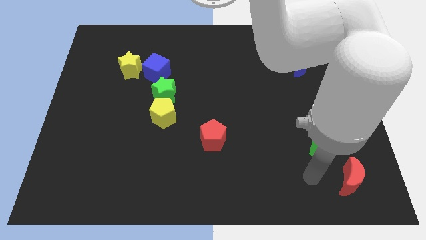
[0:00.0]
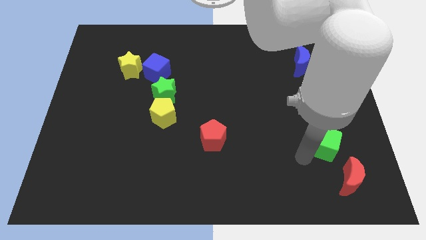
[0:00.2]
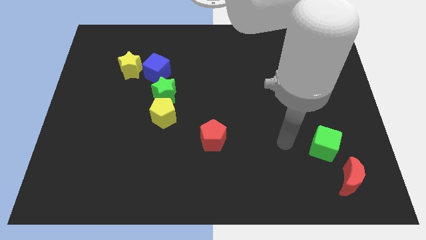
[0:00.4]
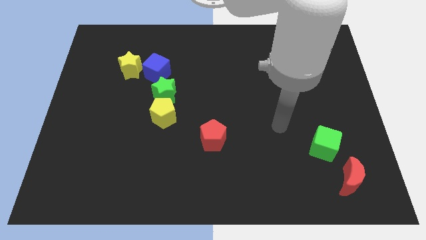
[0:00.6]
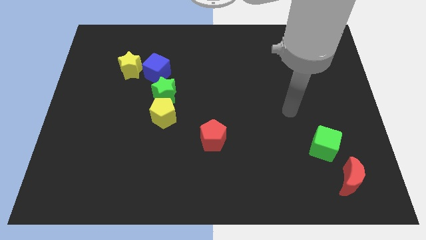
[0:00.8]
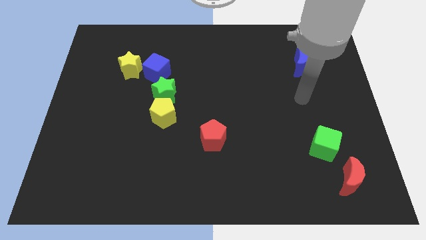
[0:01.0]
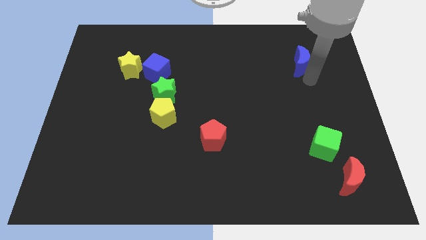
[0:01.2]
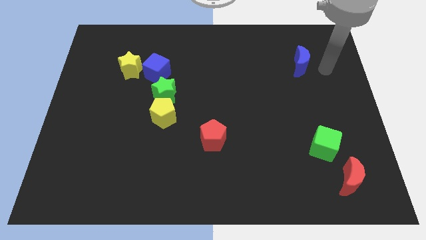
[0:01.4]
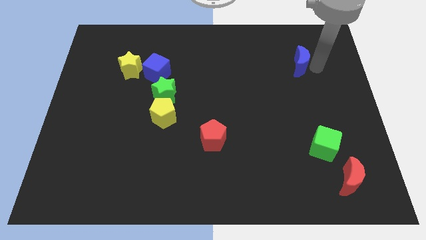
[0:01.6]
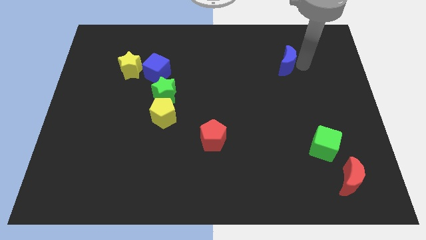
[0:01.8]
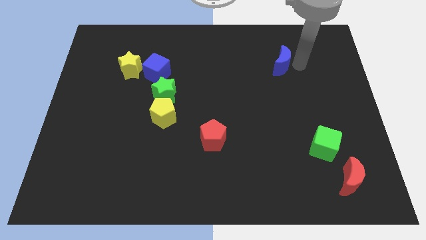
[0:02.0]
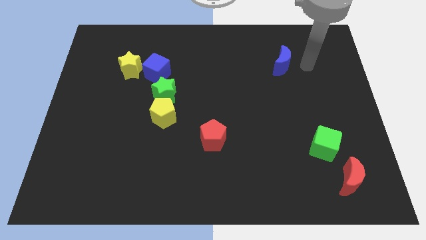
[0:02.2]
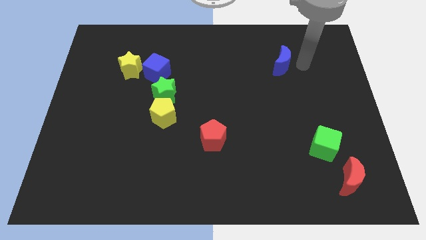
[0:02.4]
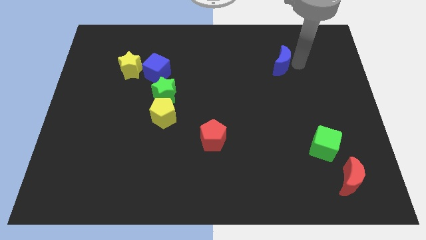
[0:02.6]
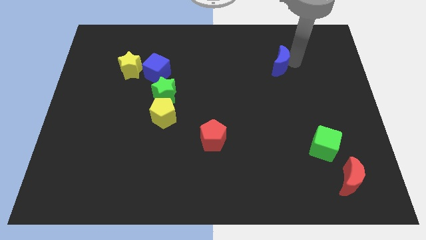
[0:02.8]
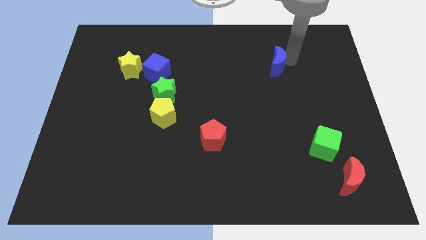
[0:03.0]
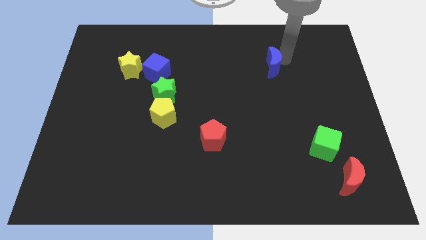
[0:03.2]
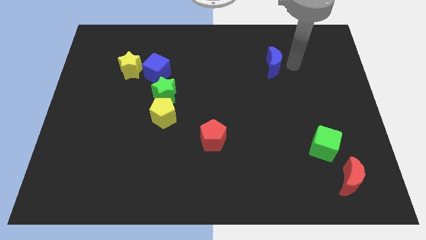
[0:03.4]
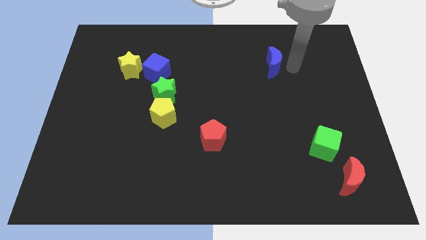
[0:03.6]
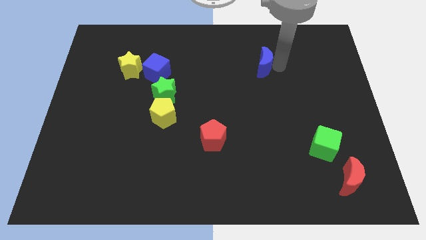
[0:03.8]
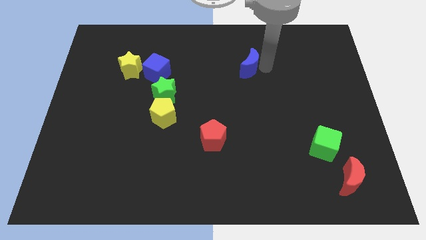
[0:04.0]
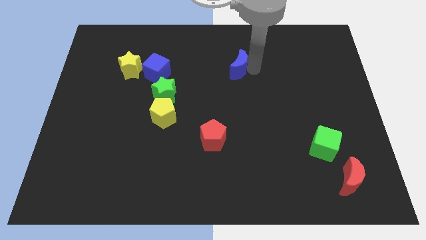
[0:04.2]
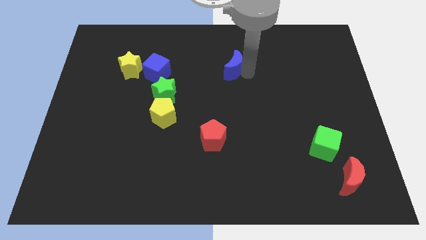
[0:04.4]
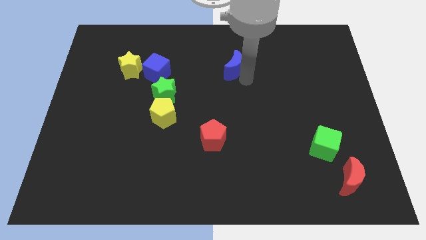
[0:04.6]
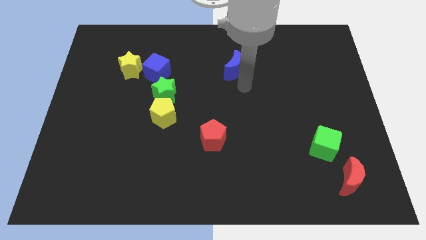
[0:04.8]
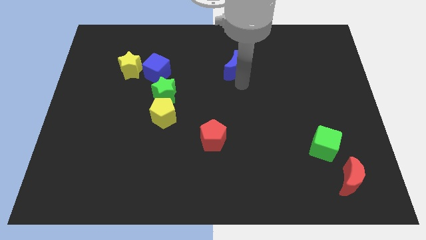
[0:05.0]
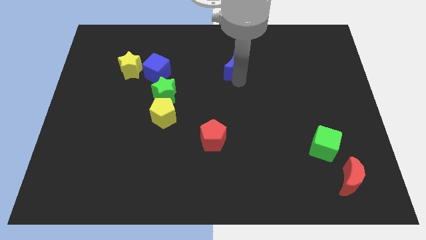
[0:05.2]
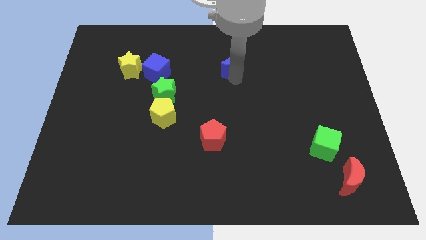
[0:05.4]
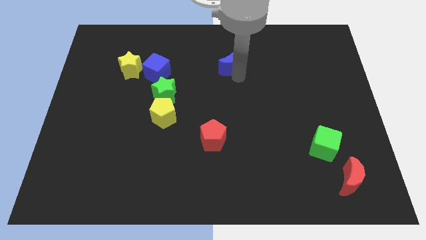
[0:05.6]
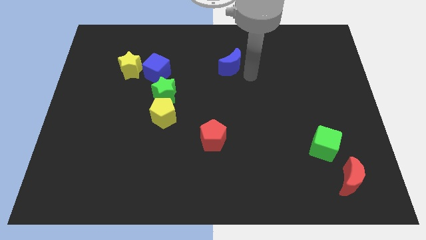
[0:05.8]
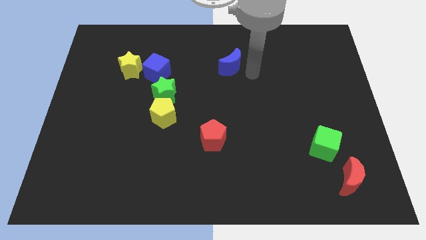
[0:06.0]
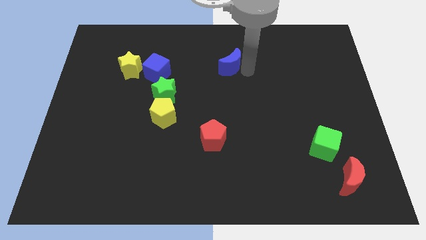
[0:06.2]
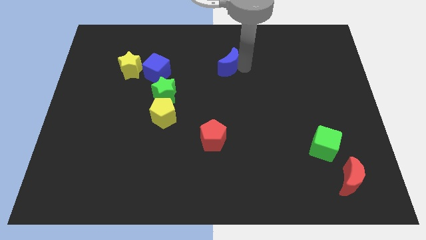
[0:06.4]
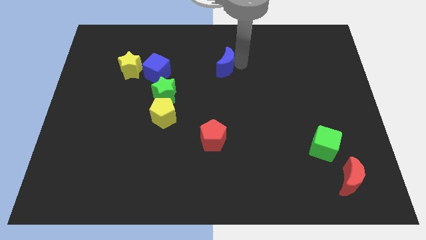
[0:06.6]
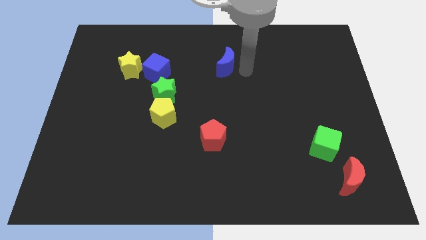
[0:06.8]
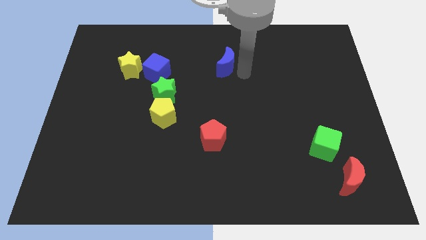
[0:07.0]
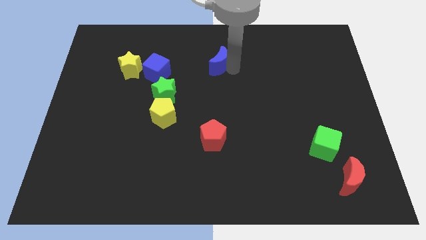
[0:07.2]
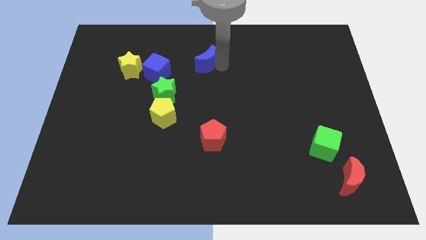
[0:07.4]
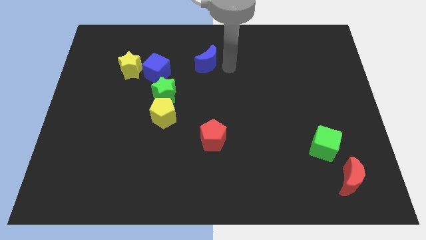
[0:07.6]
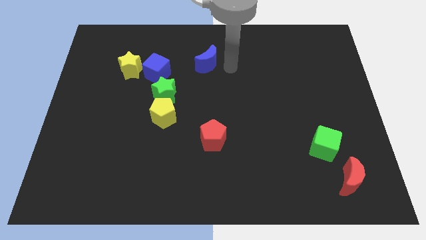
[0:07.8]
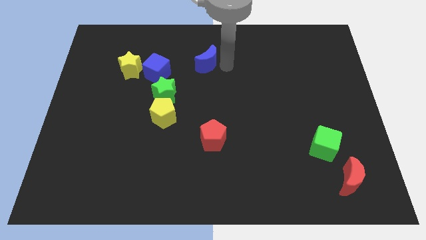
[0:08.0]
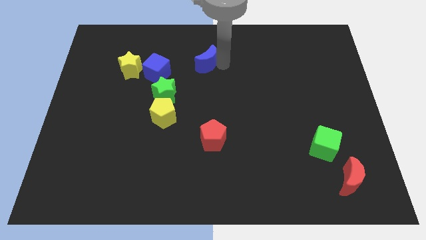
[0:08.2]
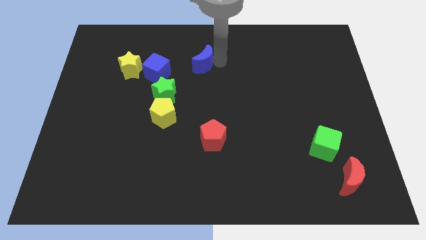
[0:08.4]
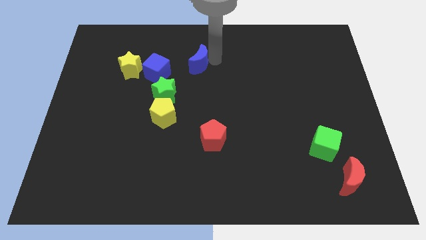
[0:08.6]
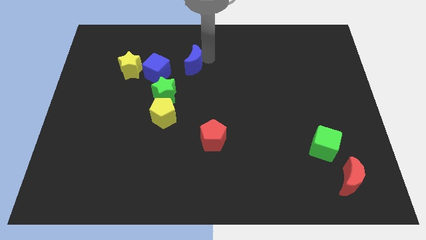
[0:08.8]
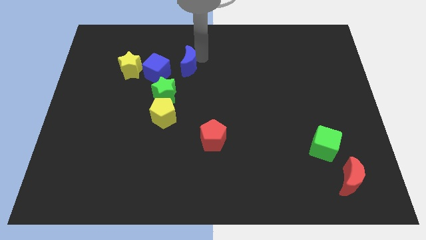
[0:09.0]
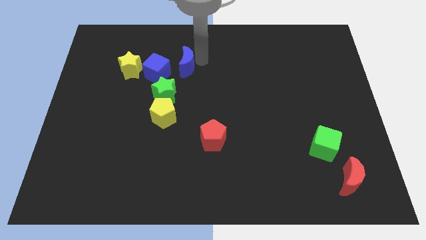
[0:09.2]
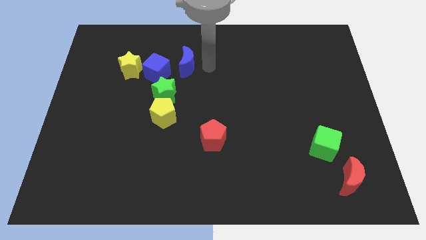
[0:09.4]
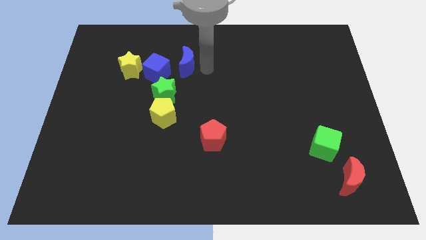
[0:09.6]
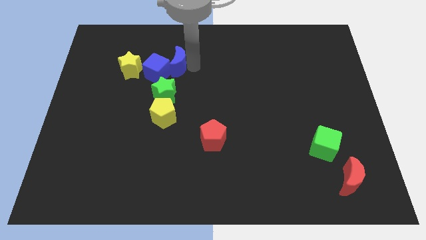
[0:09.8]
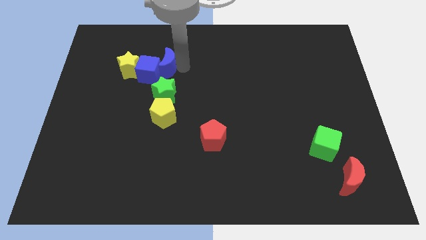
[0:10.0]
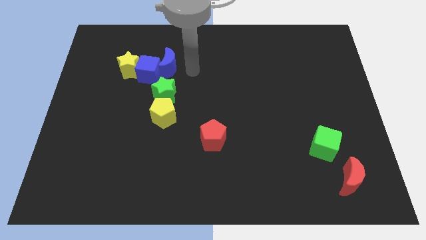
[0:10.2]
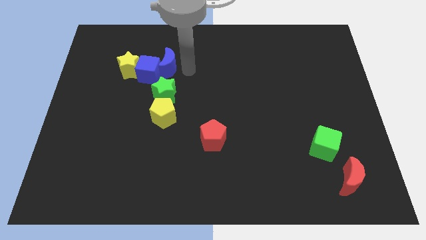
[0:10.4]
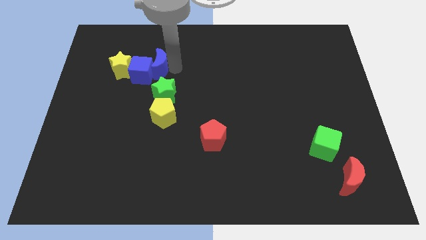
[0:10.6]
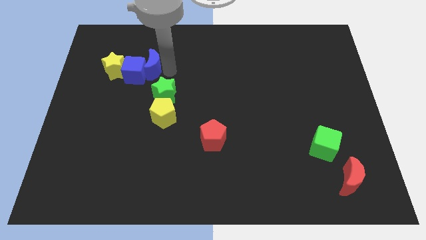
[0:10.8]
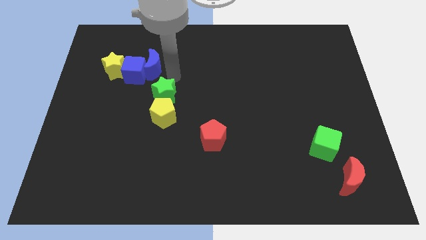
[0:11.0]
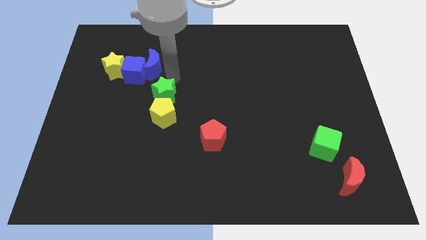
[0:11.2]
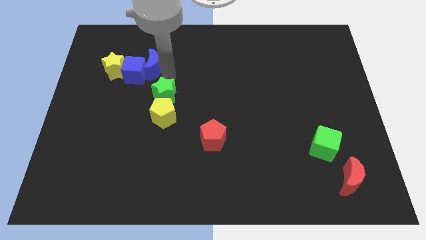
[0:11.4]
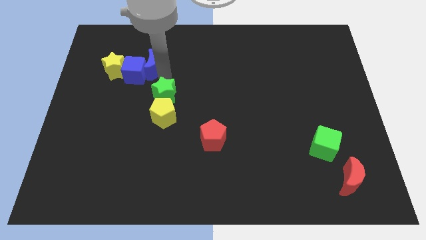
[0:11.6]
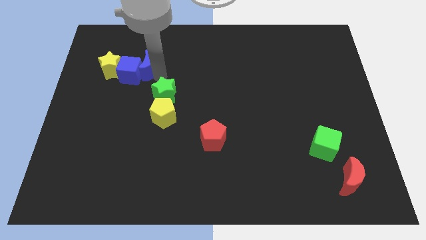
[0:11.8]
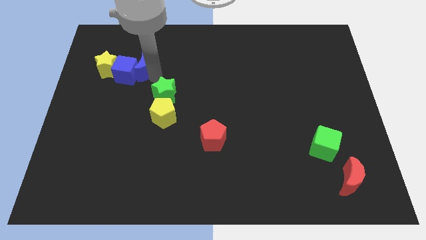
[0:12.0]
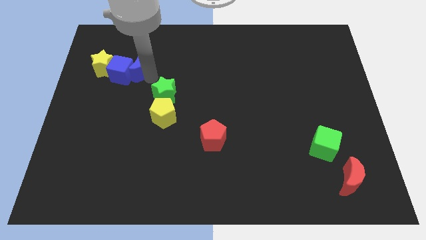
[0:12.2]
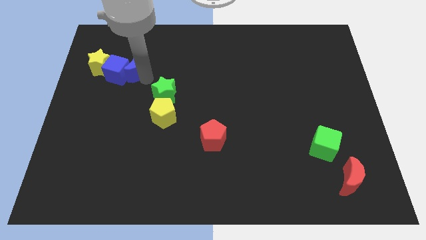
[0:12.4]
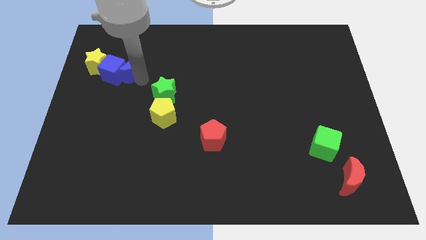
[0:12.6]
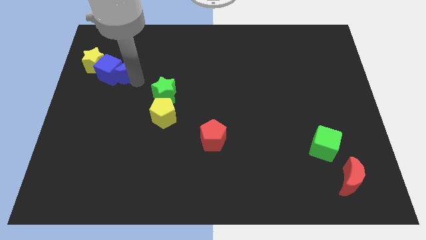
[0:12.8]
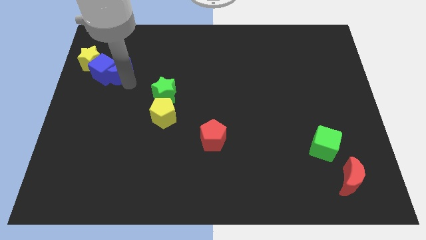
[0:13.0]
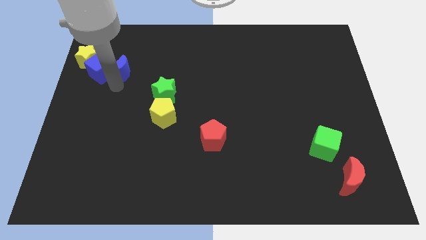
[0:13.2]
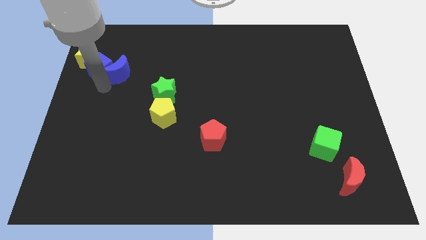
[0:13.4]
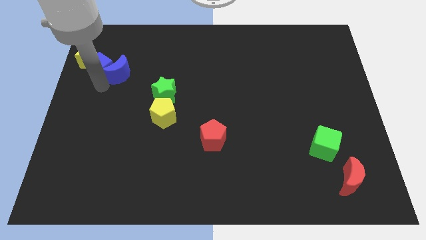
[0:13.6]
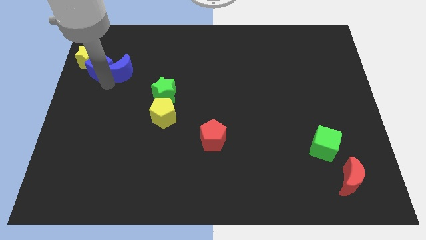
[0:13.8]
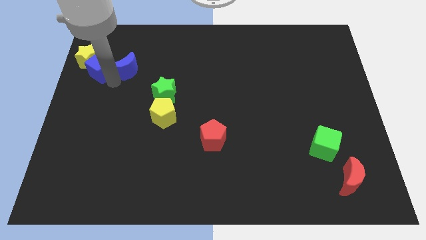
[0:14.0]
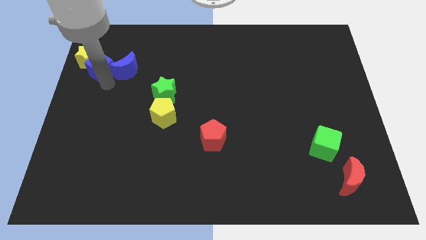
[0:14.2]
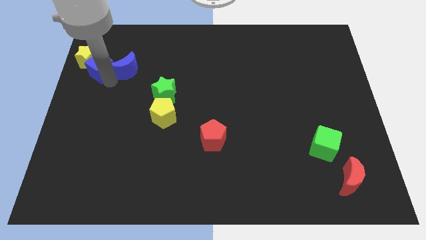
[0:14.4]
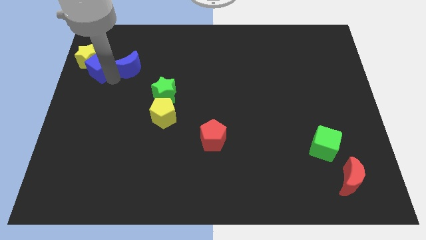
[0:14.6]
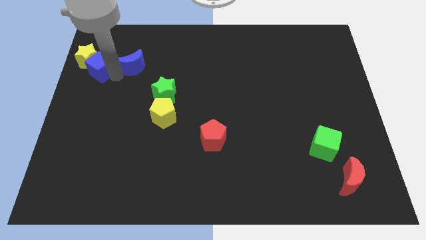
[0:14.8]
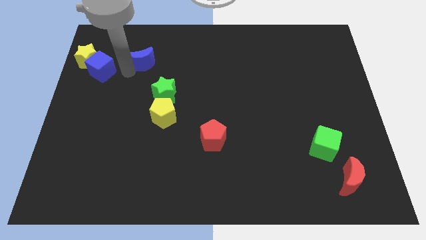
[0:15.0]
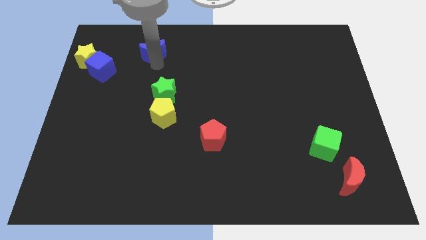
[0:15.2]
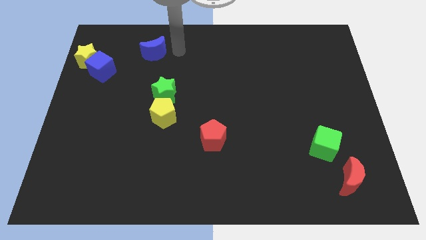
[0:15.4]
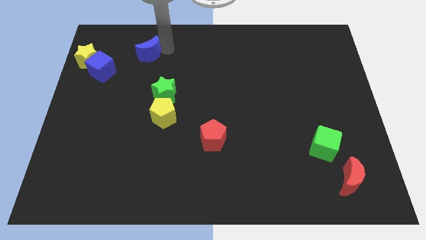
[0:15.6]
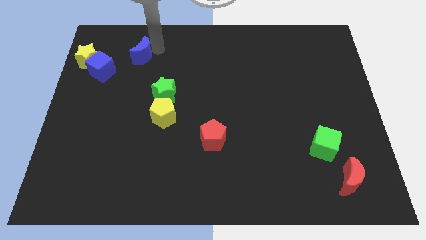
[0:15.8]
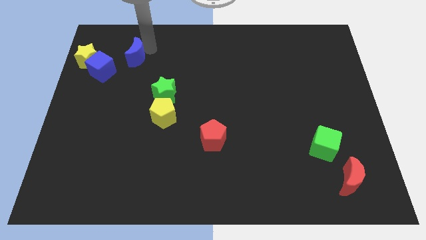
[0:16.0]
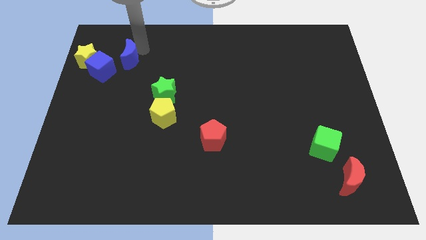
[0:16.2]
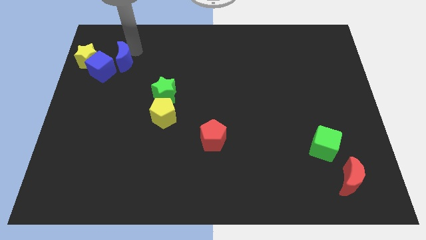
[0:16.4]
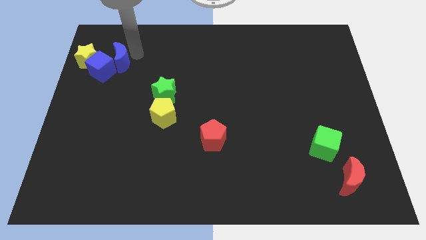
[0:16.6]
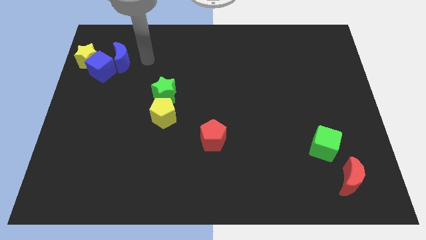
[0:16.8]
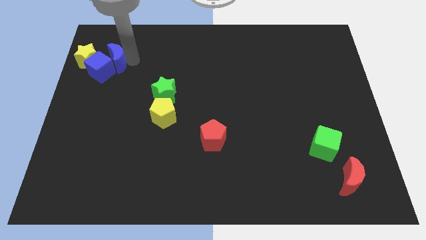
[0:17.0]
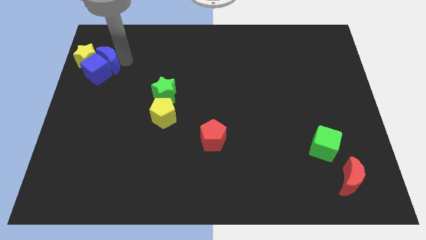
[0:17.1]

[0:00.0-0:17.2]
push the blue moon next to the yellow star
